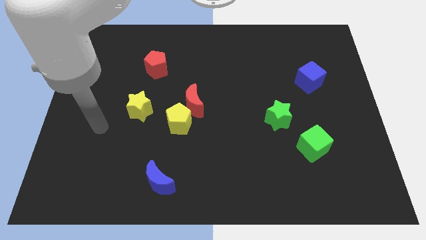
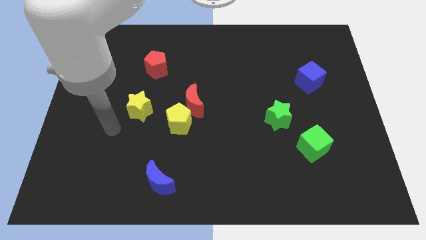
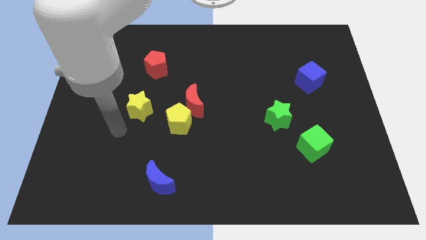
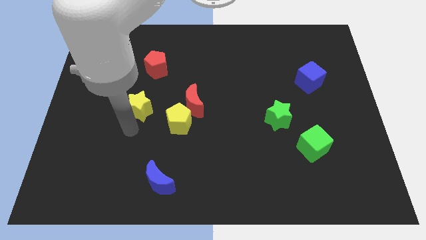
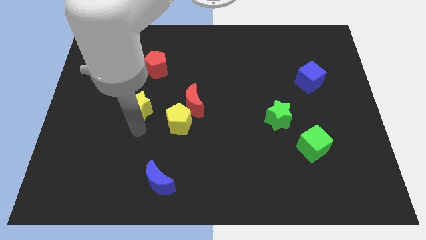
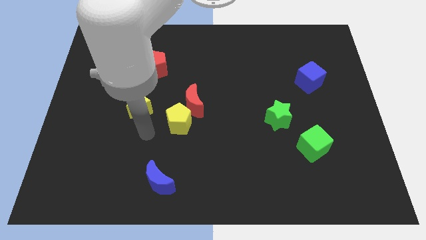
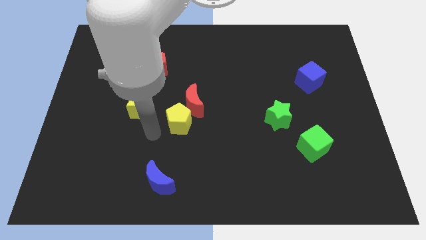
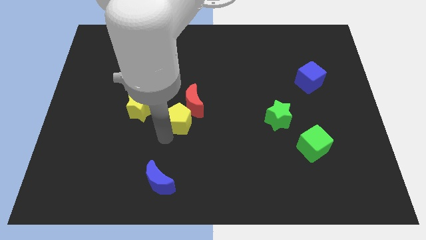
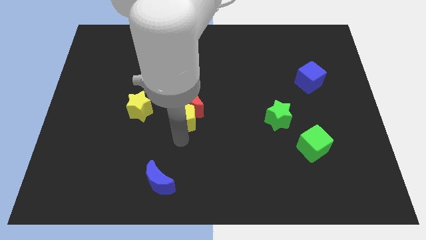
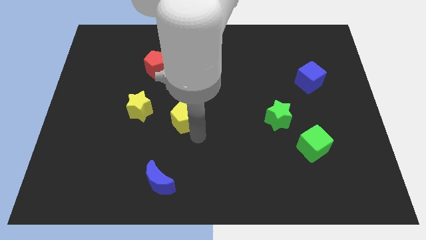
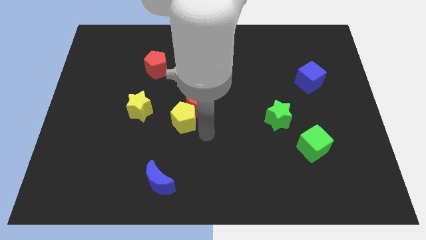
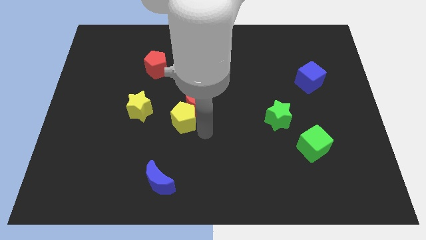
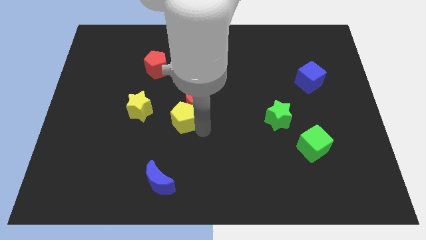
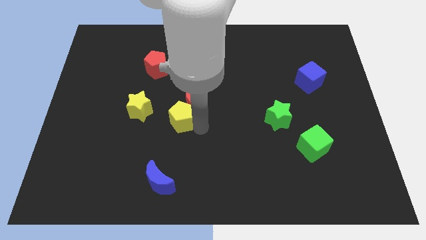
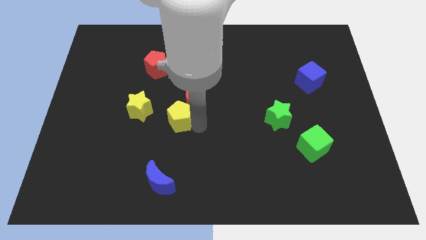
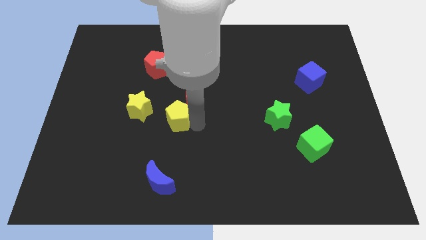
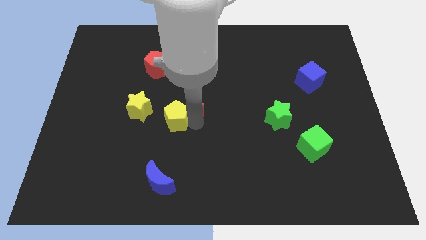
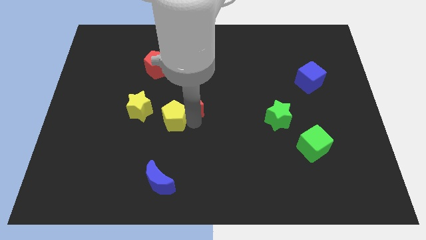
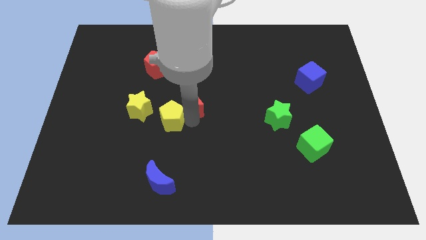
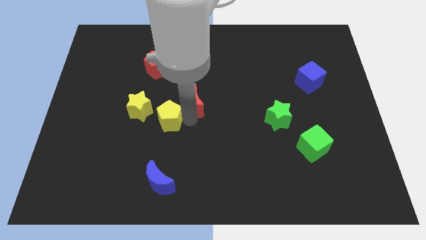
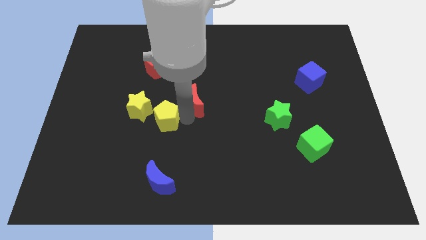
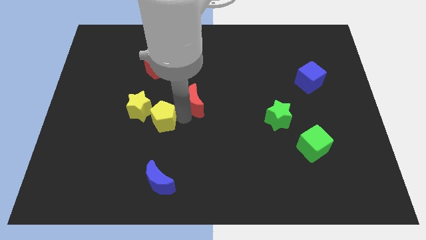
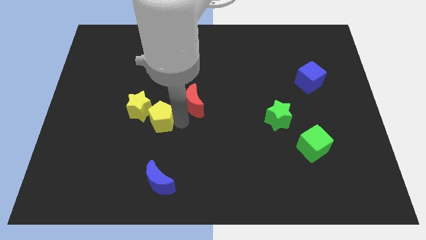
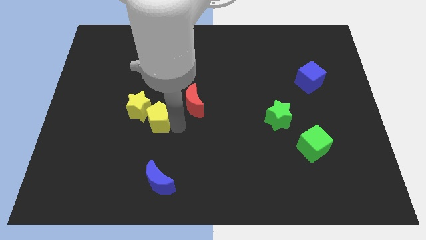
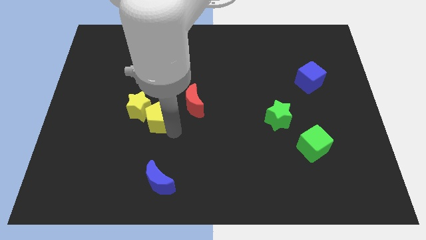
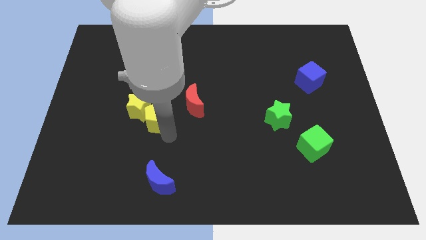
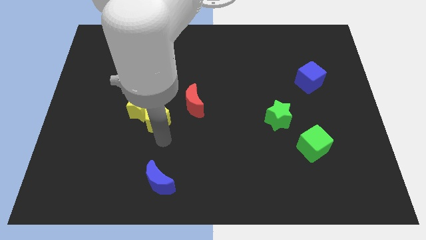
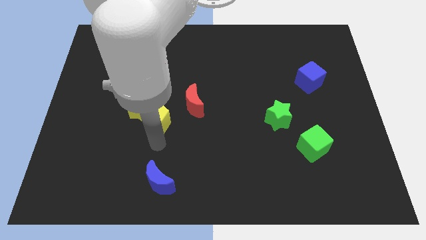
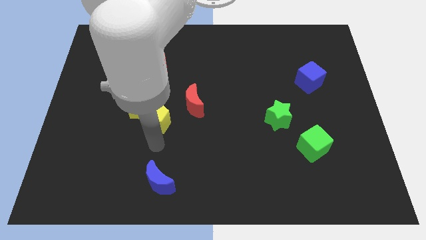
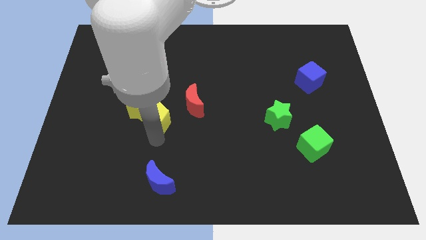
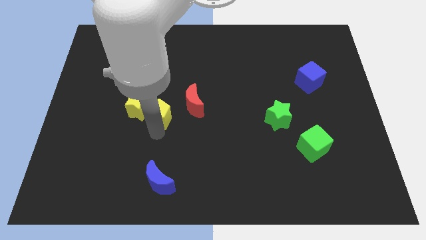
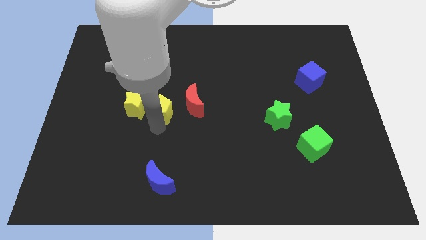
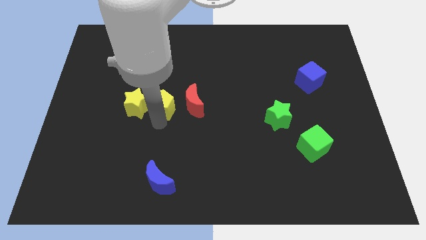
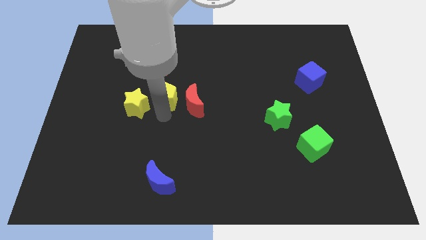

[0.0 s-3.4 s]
push the yellow pentagon up and left diagonally a little

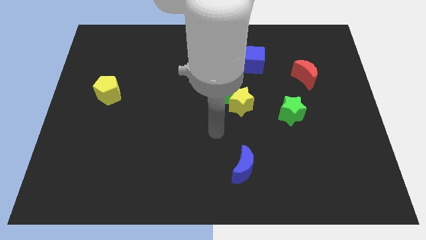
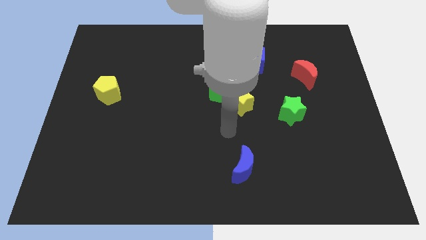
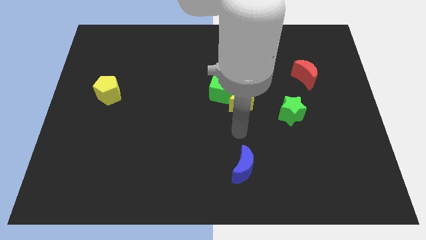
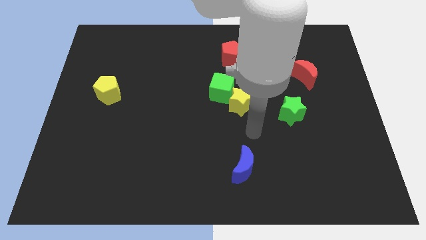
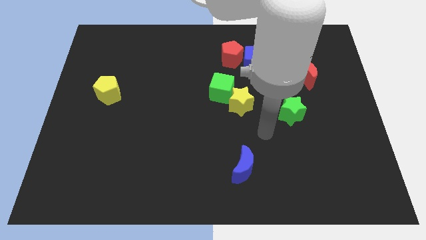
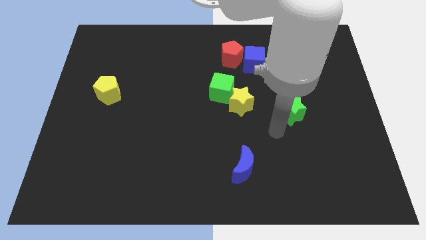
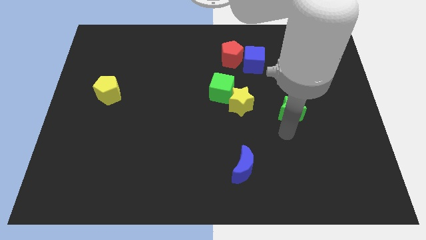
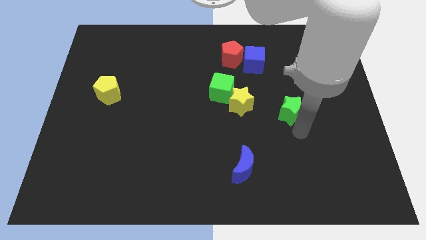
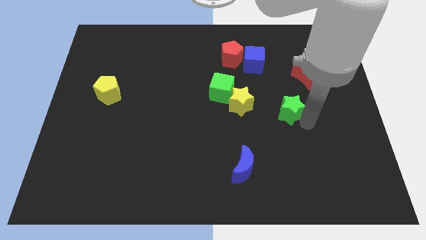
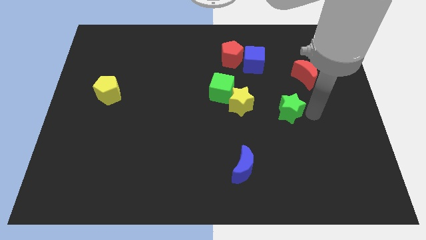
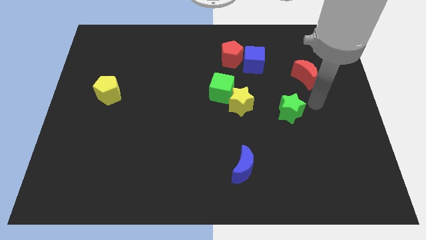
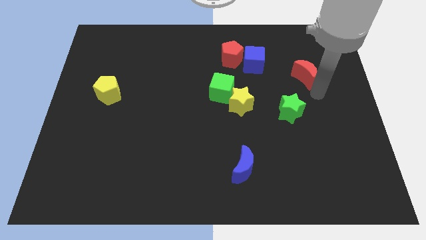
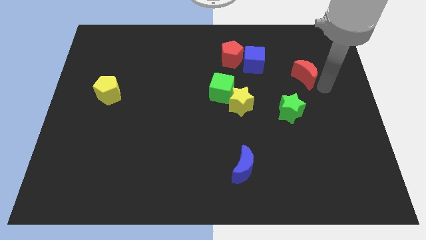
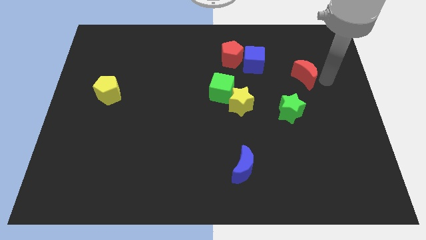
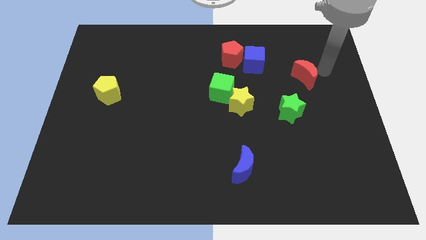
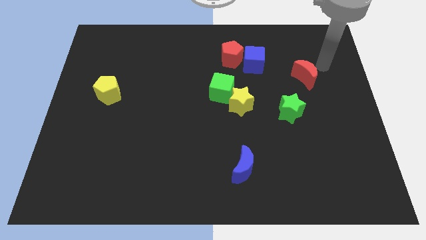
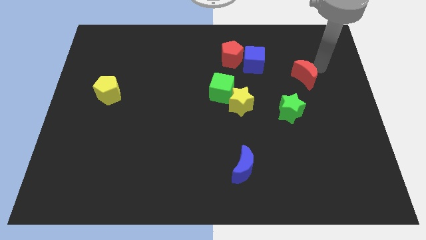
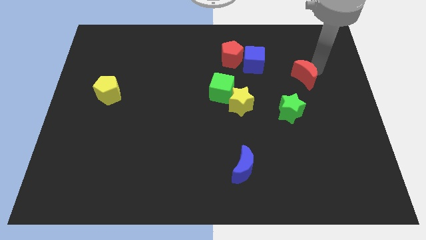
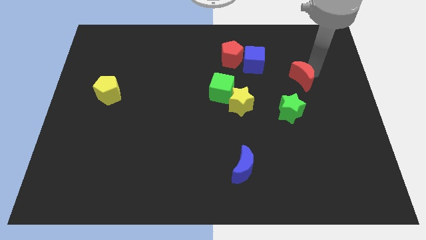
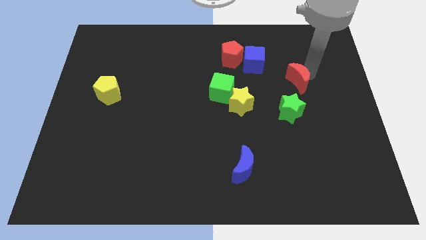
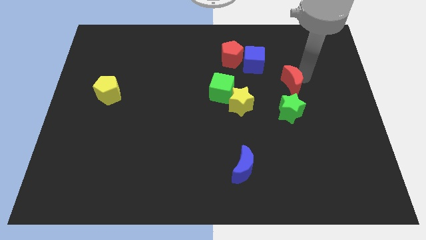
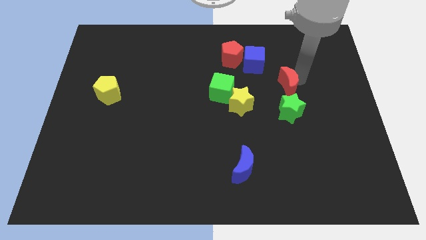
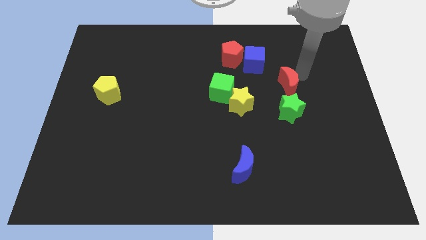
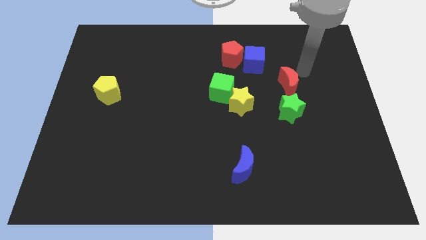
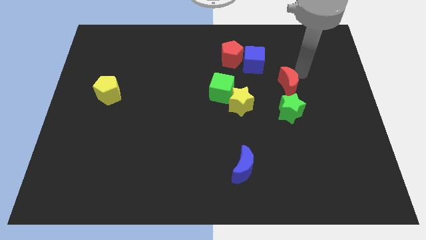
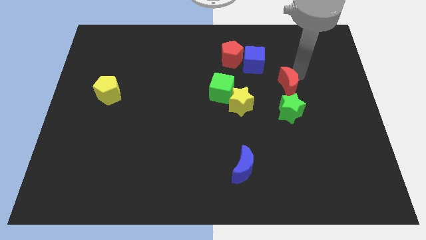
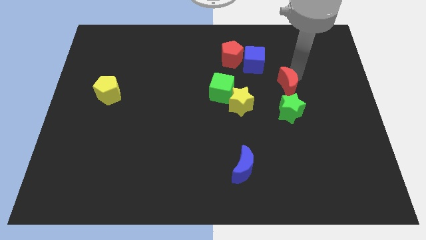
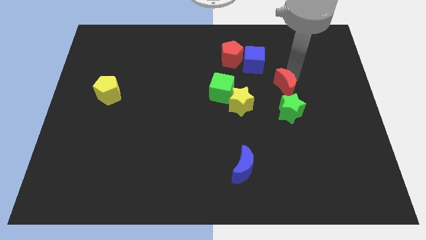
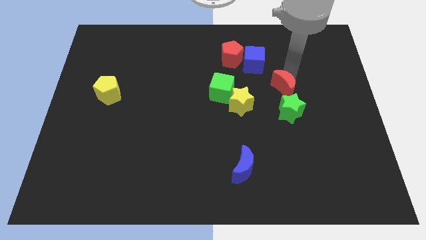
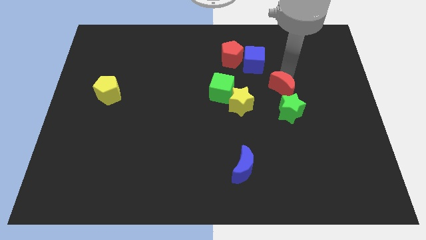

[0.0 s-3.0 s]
move the red moon down and then to the left a little

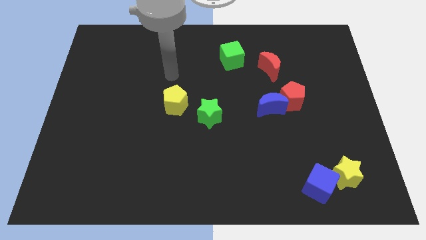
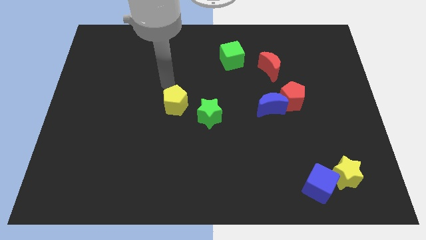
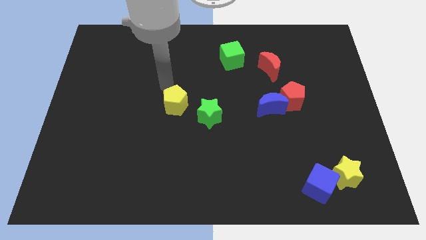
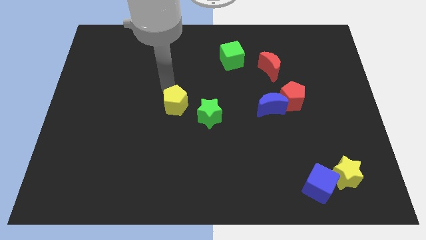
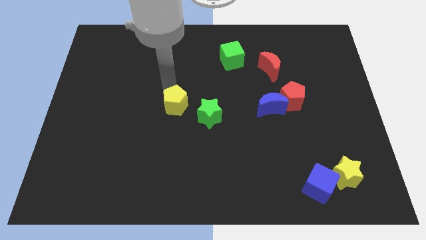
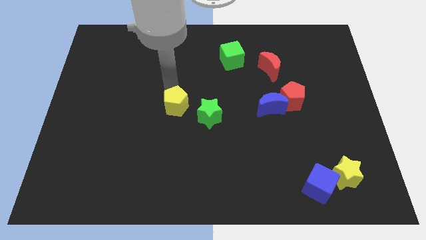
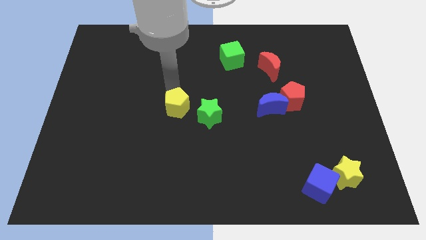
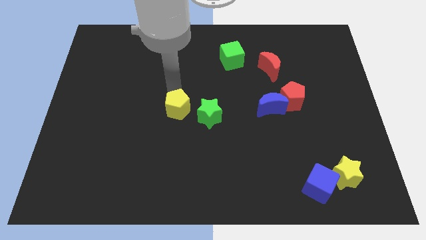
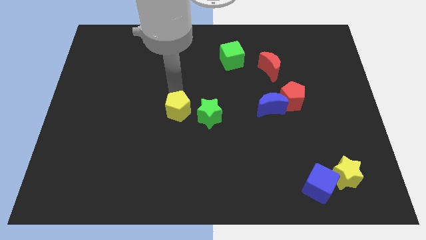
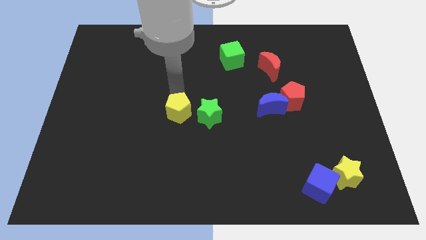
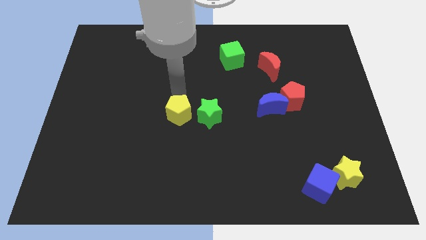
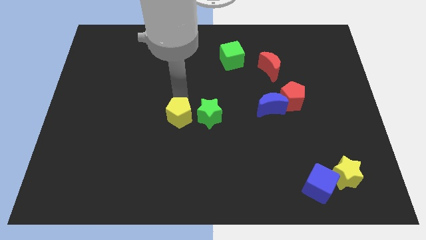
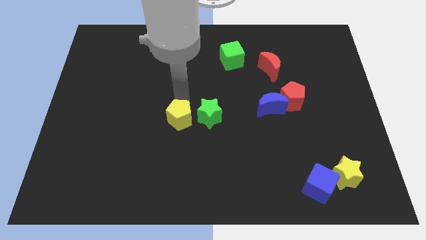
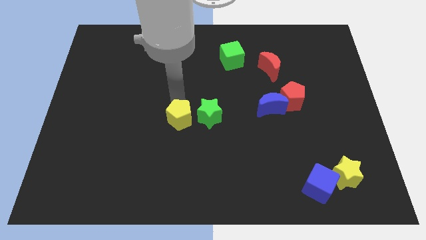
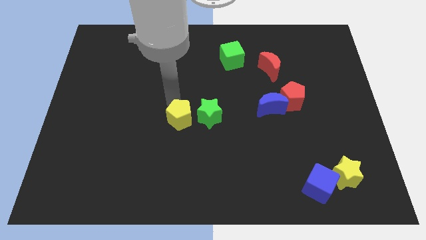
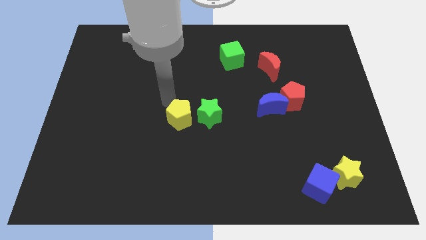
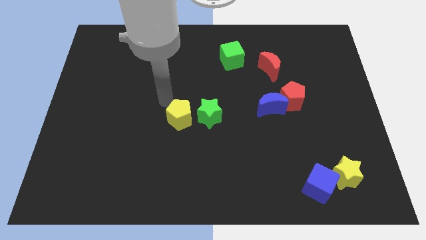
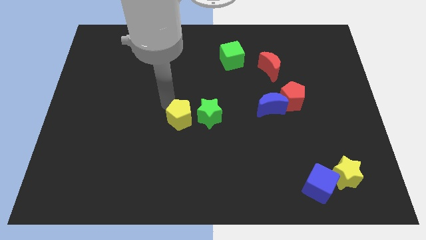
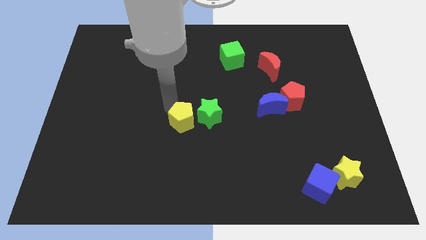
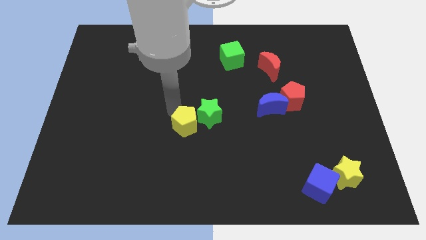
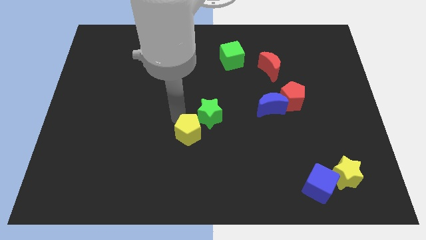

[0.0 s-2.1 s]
push the yellow pentagon a bit down and to the right
